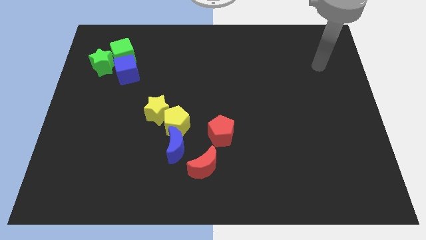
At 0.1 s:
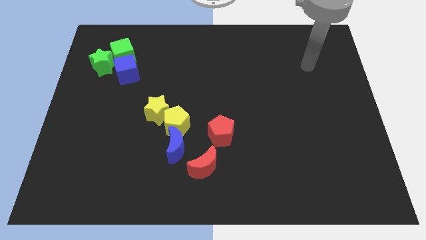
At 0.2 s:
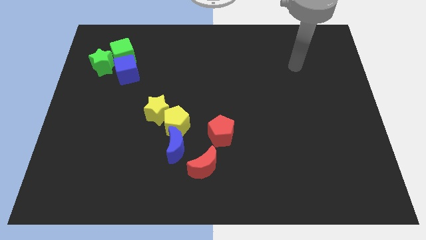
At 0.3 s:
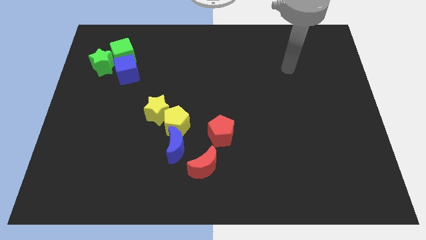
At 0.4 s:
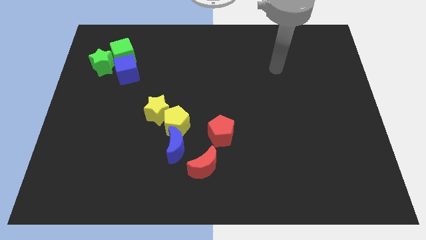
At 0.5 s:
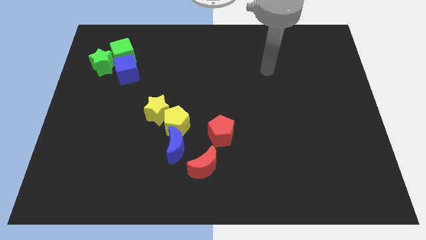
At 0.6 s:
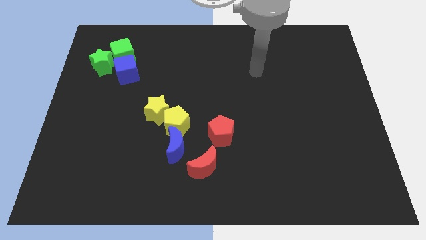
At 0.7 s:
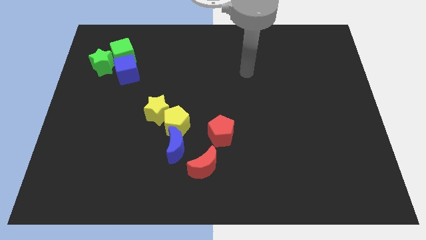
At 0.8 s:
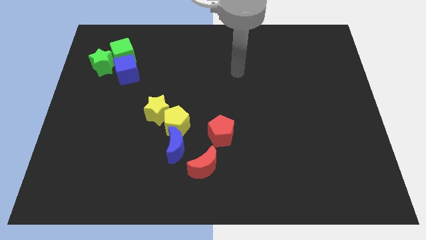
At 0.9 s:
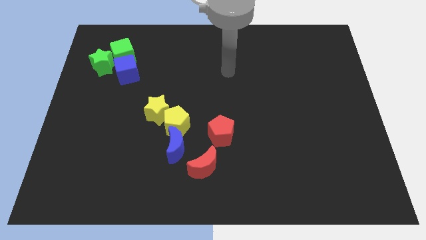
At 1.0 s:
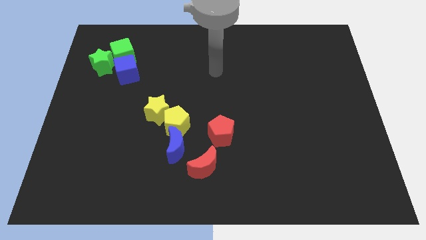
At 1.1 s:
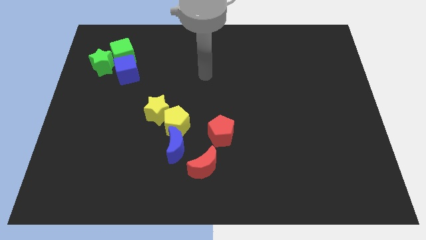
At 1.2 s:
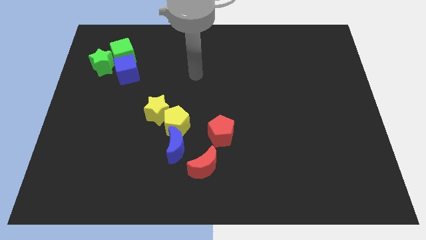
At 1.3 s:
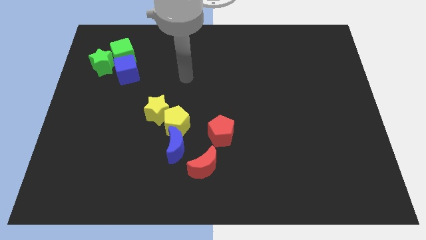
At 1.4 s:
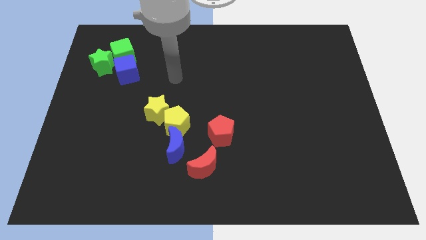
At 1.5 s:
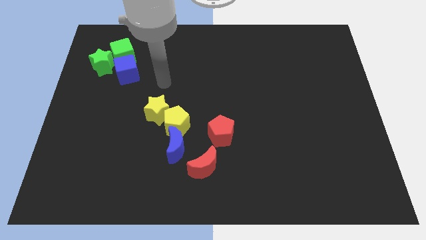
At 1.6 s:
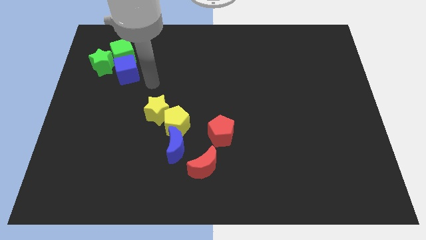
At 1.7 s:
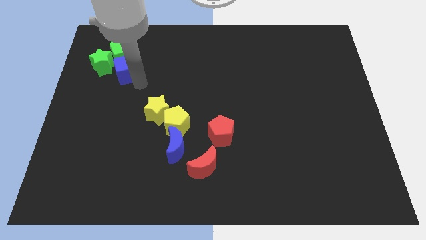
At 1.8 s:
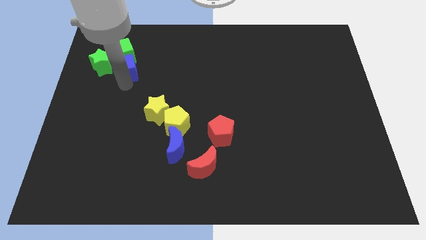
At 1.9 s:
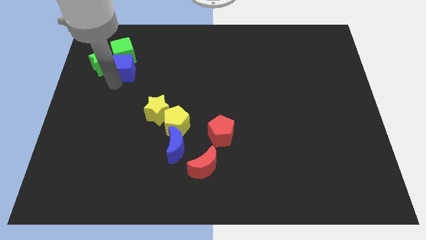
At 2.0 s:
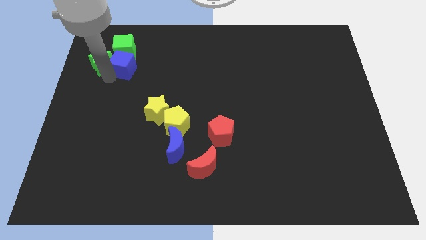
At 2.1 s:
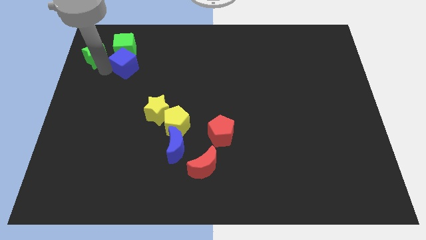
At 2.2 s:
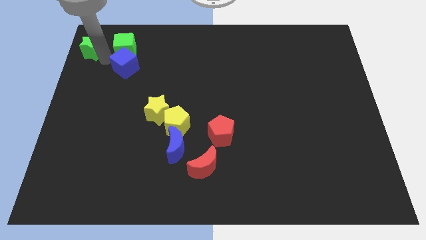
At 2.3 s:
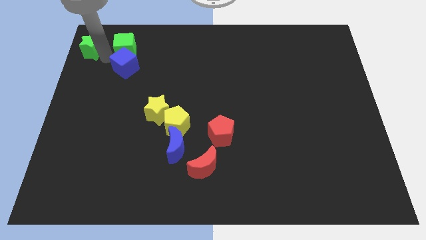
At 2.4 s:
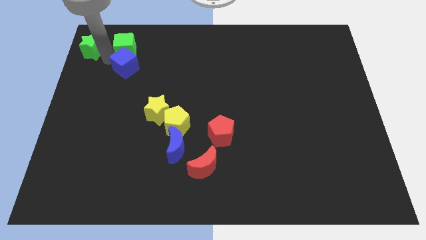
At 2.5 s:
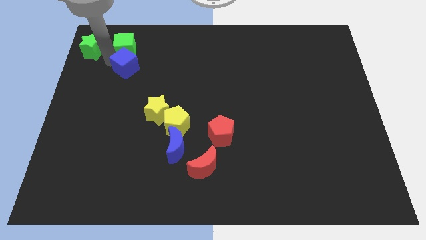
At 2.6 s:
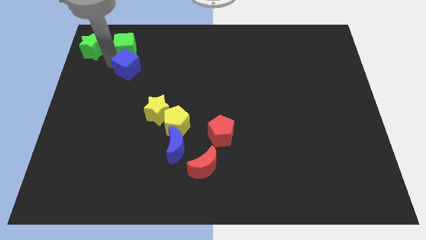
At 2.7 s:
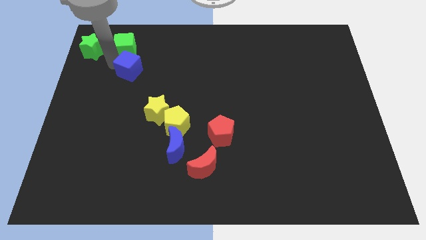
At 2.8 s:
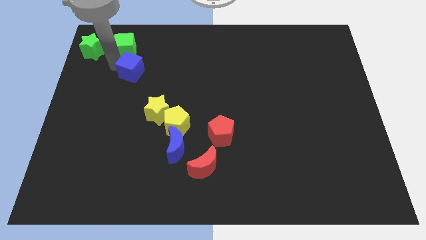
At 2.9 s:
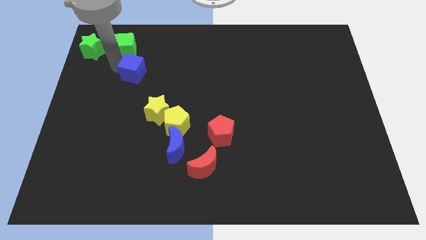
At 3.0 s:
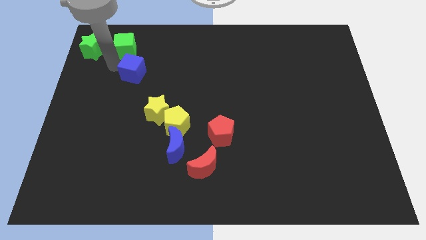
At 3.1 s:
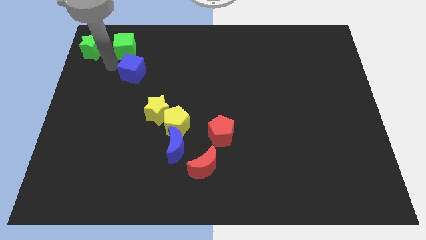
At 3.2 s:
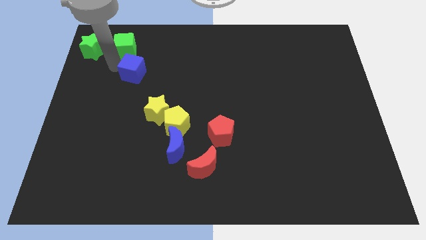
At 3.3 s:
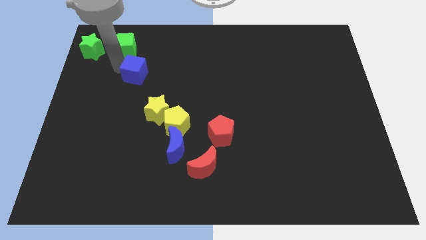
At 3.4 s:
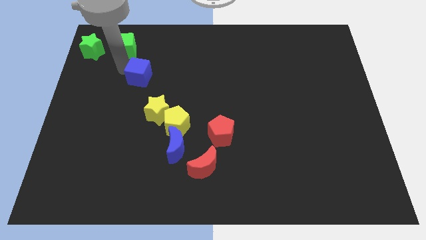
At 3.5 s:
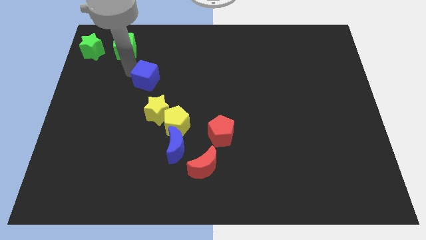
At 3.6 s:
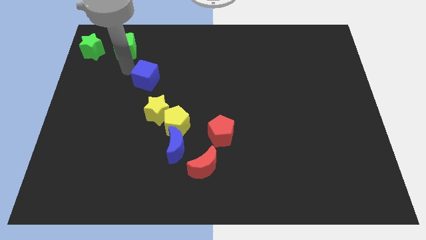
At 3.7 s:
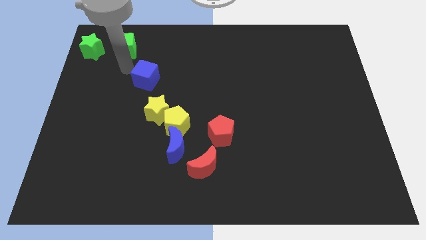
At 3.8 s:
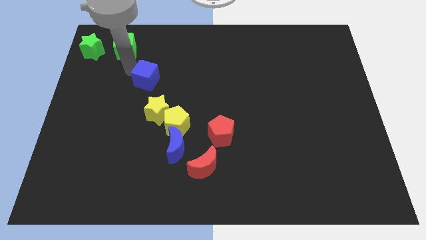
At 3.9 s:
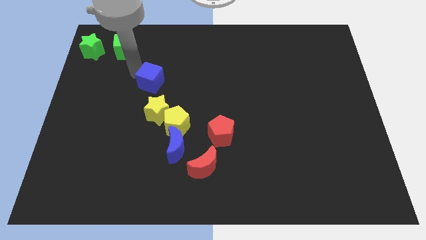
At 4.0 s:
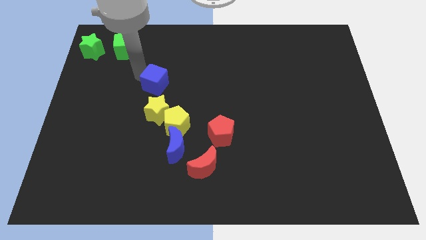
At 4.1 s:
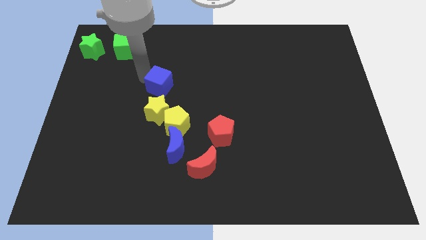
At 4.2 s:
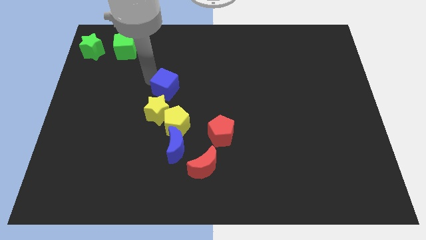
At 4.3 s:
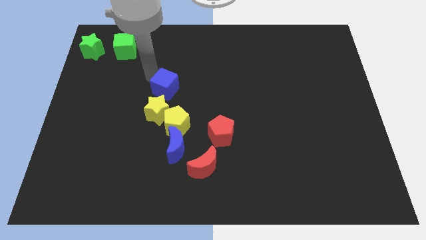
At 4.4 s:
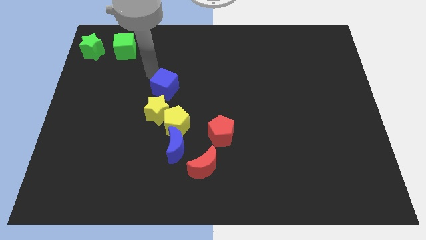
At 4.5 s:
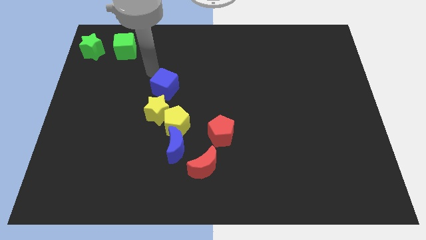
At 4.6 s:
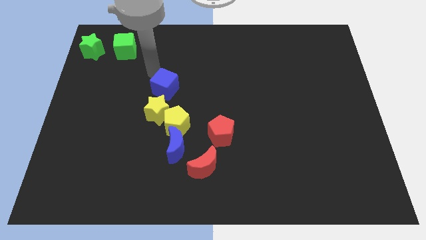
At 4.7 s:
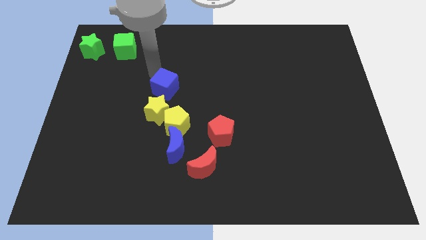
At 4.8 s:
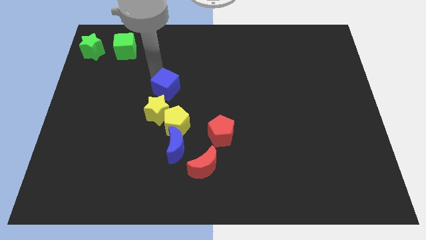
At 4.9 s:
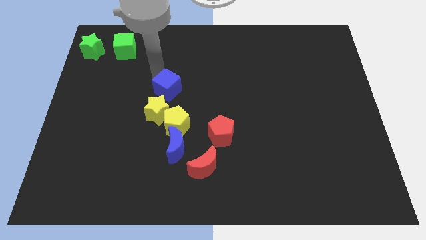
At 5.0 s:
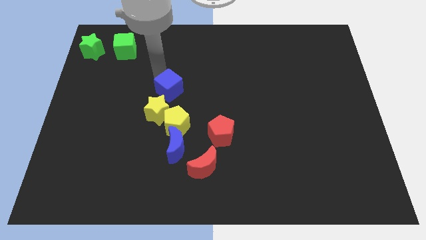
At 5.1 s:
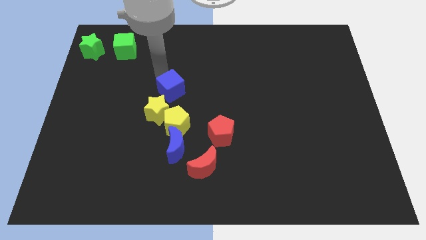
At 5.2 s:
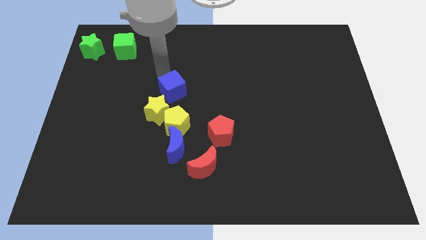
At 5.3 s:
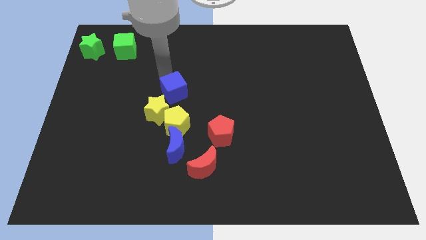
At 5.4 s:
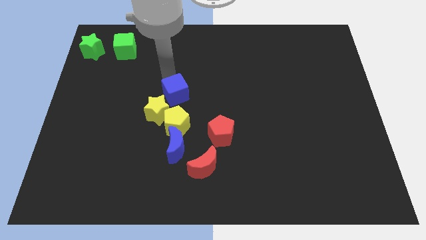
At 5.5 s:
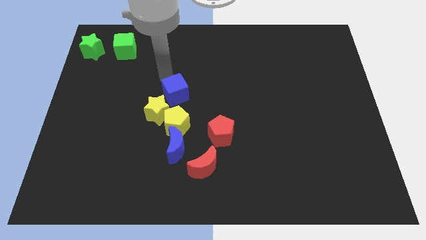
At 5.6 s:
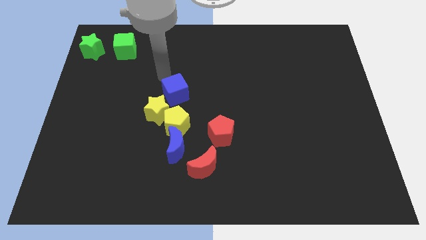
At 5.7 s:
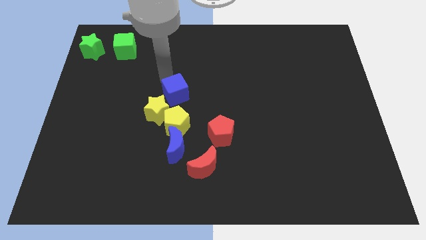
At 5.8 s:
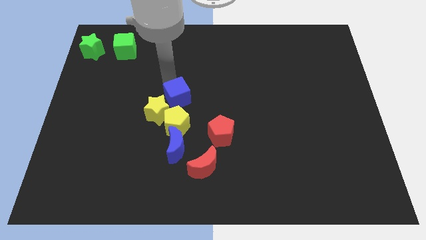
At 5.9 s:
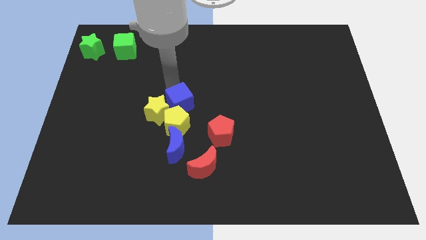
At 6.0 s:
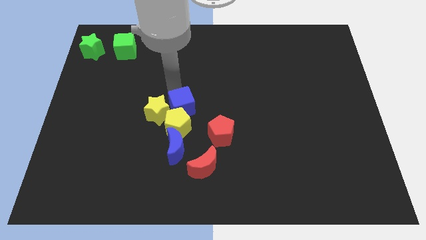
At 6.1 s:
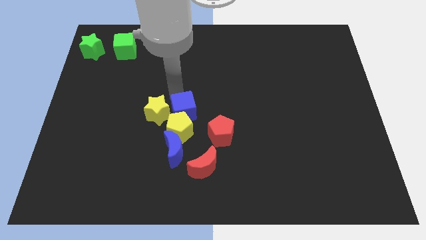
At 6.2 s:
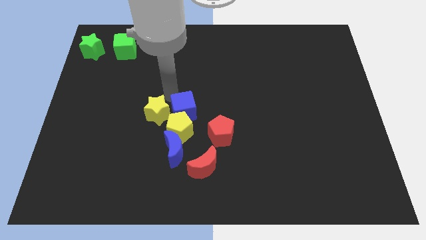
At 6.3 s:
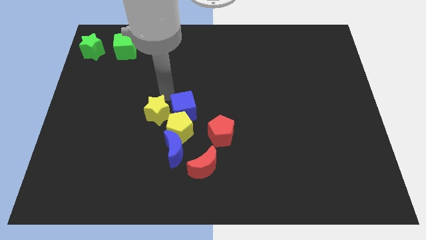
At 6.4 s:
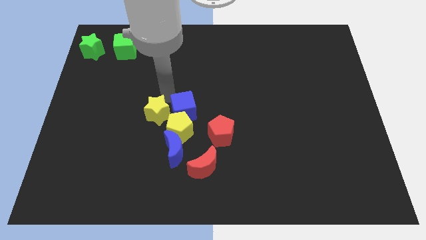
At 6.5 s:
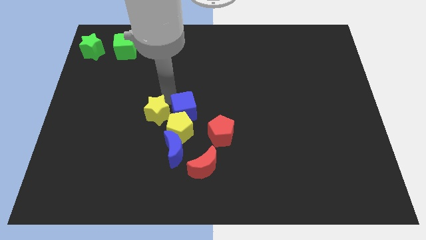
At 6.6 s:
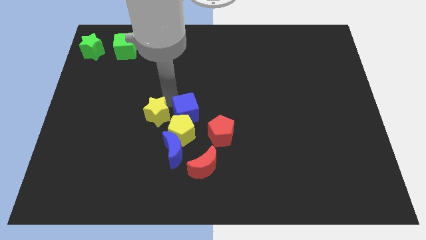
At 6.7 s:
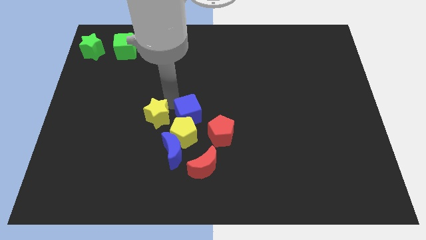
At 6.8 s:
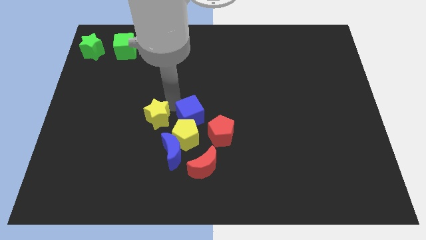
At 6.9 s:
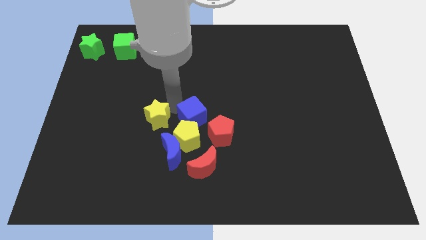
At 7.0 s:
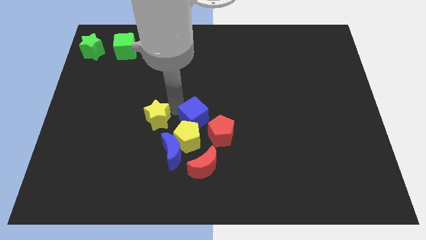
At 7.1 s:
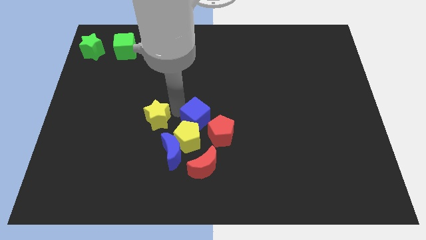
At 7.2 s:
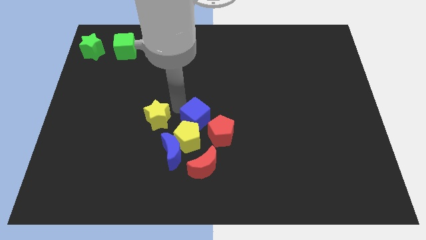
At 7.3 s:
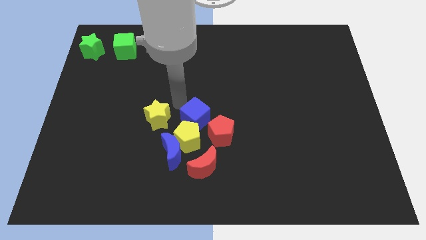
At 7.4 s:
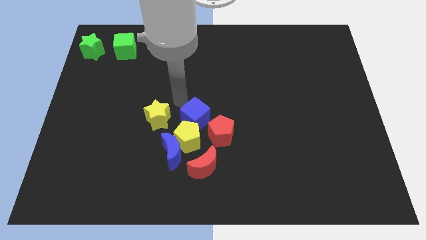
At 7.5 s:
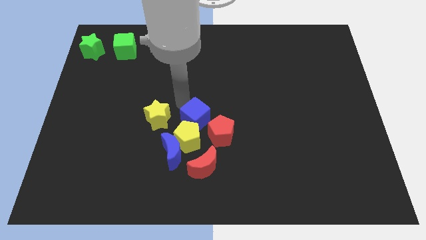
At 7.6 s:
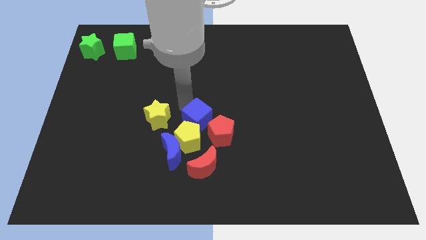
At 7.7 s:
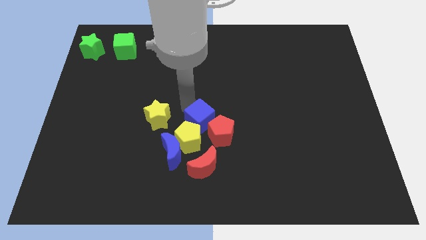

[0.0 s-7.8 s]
move the blue cube to the red pentagon
